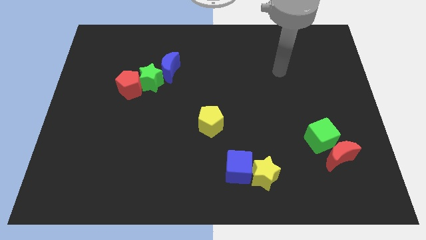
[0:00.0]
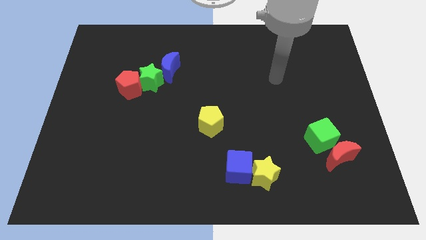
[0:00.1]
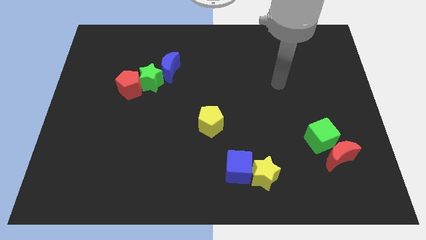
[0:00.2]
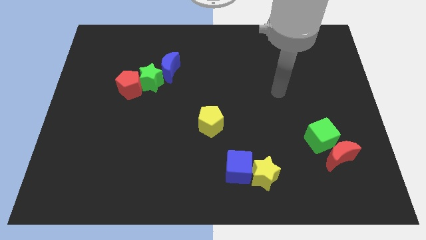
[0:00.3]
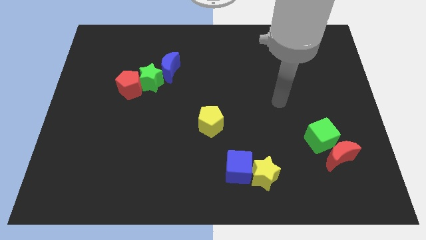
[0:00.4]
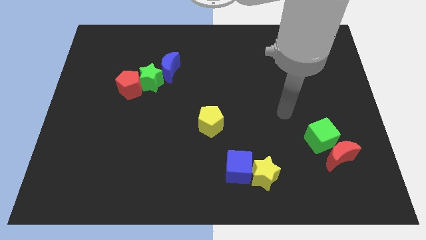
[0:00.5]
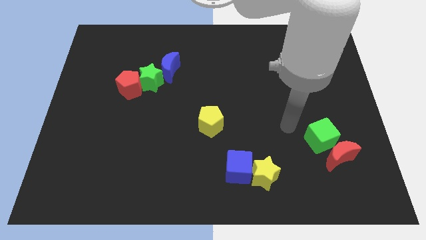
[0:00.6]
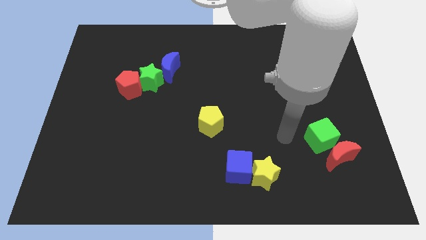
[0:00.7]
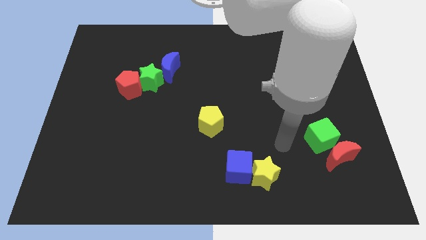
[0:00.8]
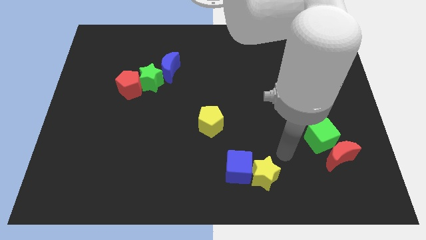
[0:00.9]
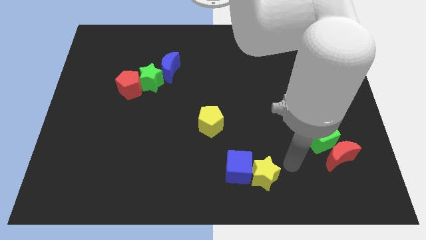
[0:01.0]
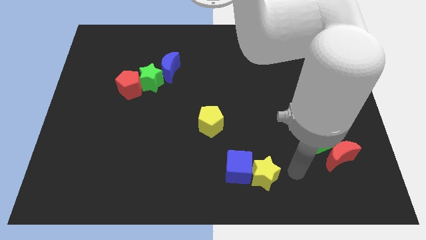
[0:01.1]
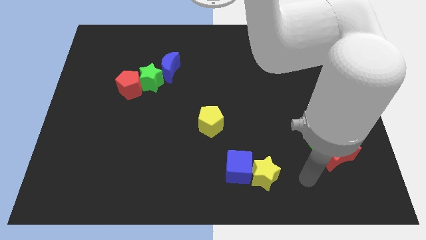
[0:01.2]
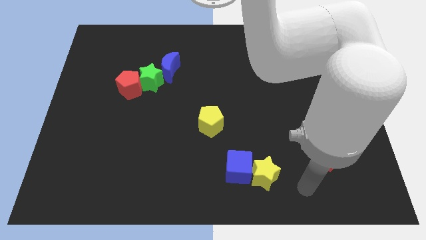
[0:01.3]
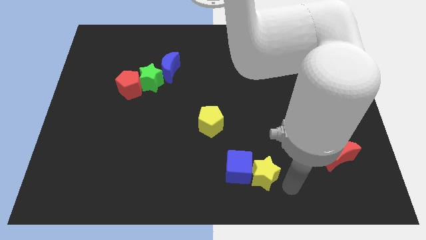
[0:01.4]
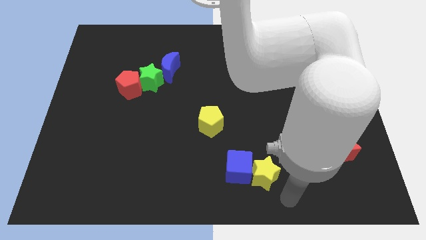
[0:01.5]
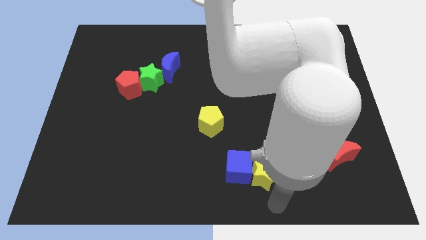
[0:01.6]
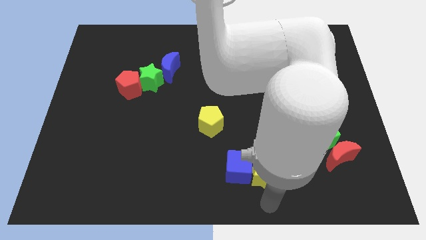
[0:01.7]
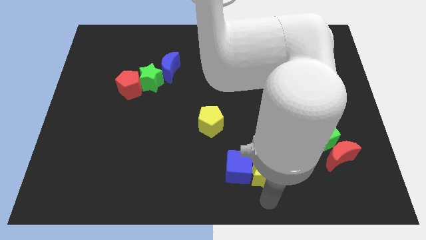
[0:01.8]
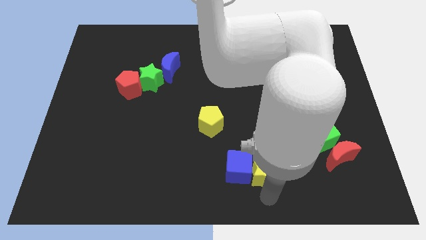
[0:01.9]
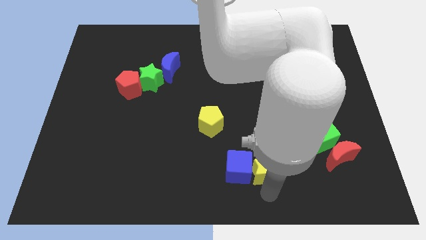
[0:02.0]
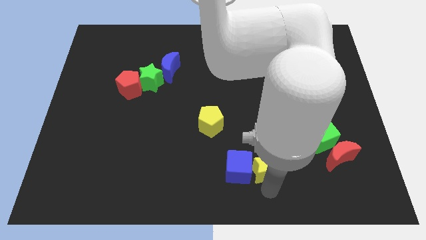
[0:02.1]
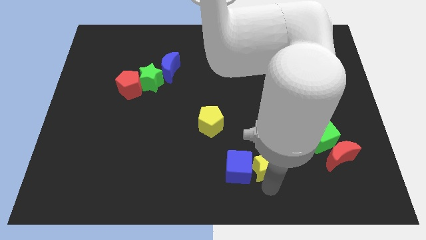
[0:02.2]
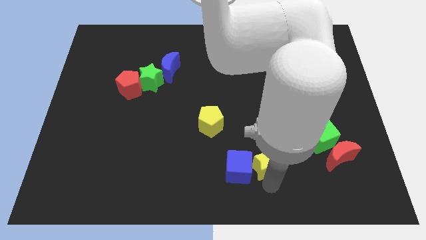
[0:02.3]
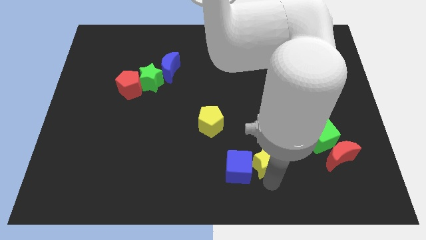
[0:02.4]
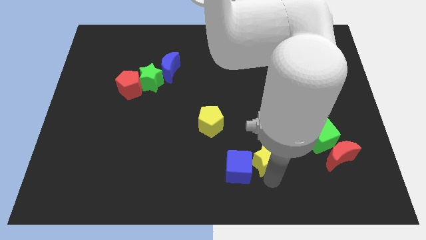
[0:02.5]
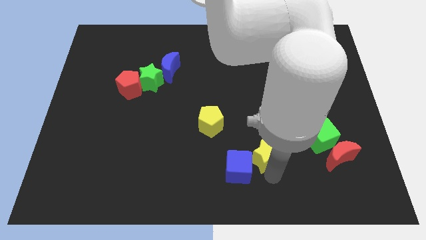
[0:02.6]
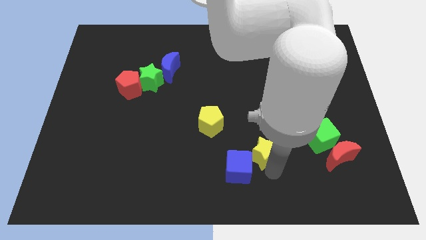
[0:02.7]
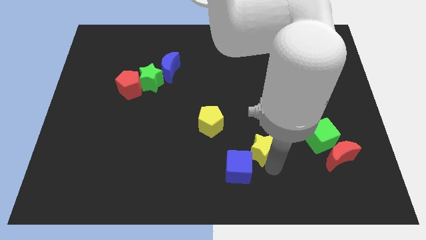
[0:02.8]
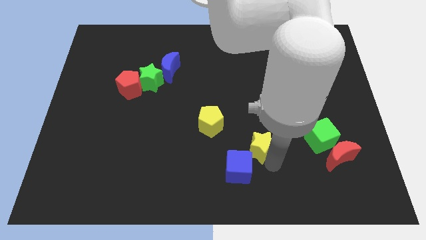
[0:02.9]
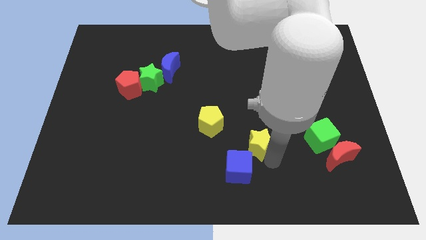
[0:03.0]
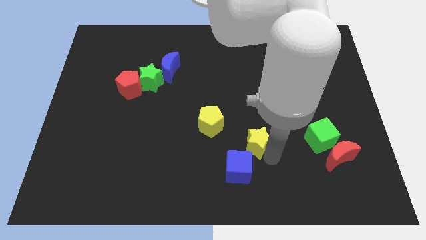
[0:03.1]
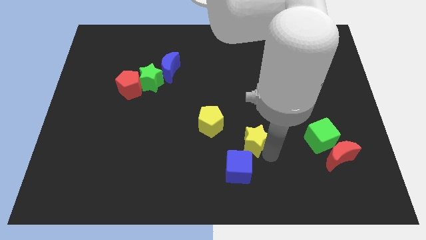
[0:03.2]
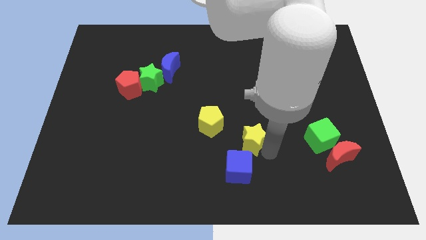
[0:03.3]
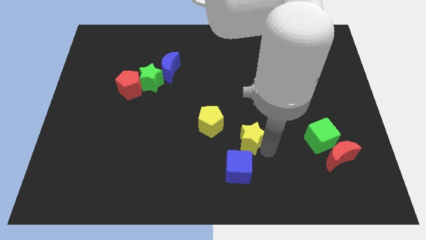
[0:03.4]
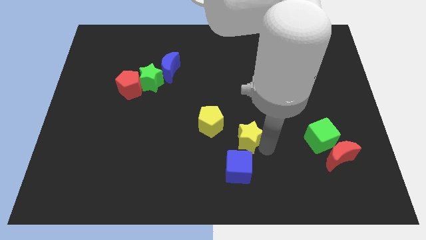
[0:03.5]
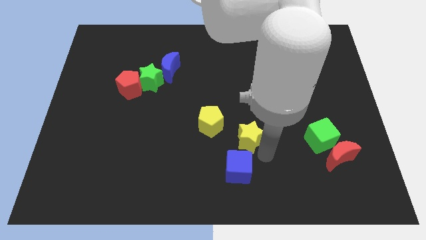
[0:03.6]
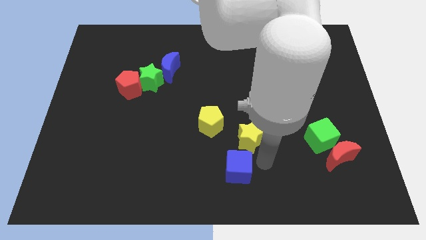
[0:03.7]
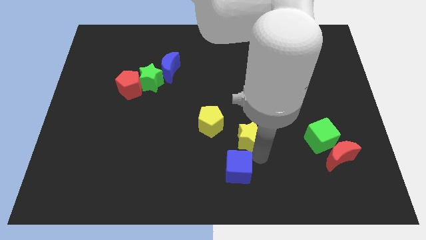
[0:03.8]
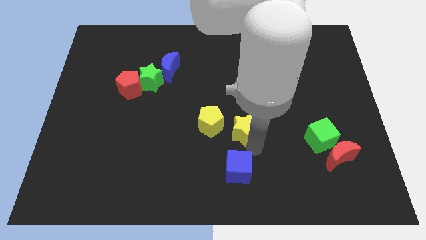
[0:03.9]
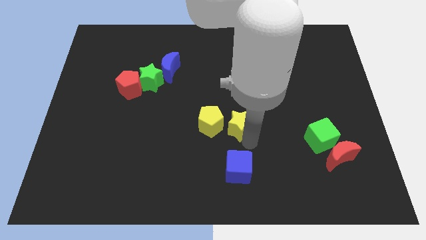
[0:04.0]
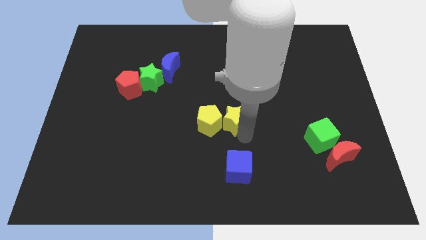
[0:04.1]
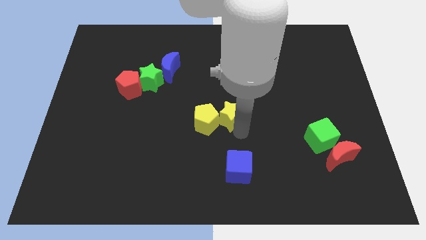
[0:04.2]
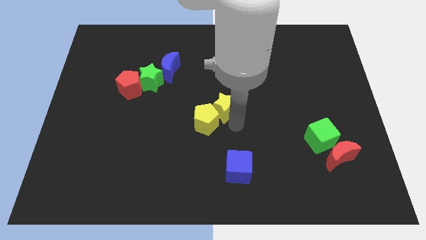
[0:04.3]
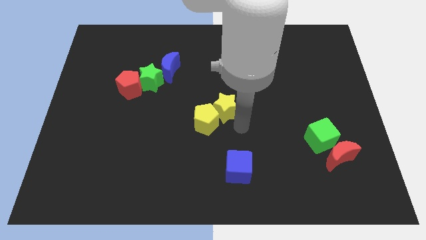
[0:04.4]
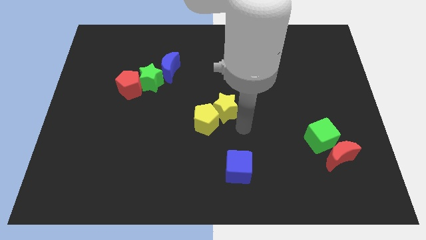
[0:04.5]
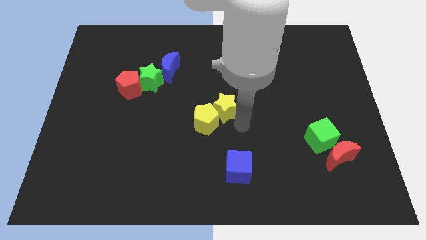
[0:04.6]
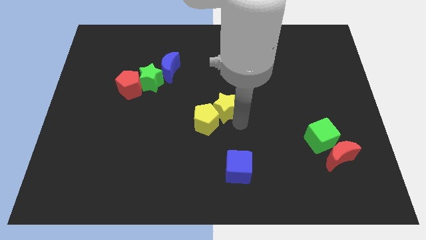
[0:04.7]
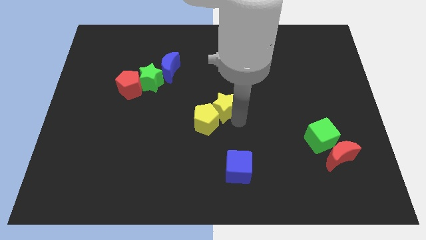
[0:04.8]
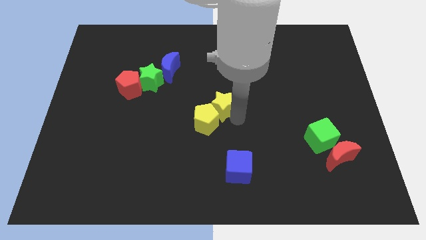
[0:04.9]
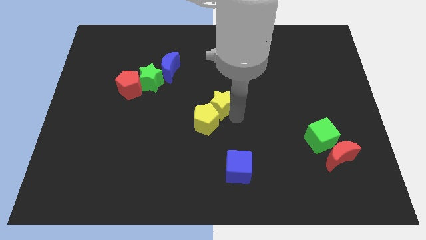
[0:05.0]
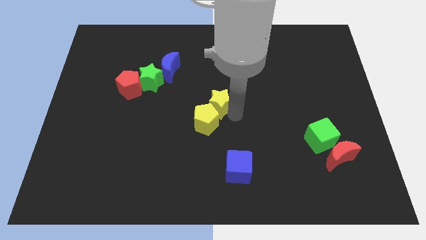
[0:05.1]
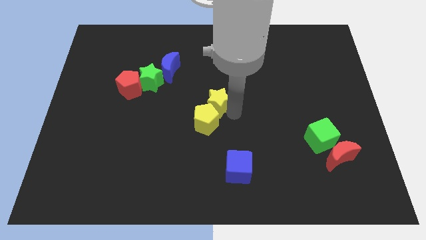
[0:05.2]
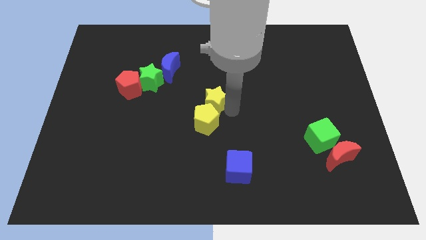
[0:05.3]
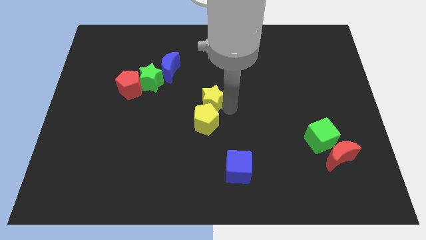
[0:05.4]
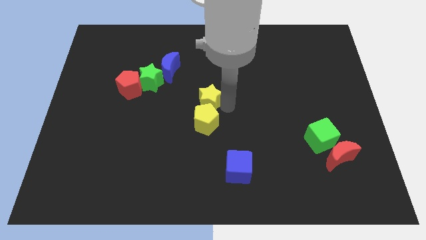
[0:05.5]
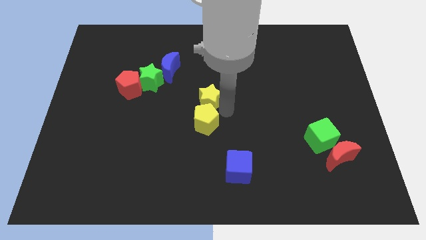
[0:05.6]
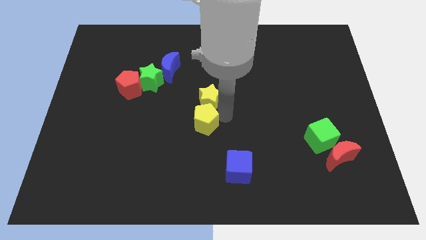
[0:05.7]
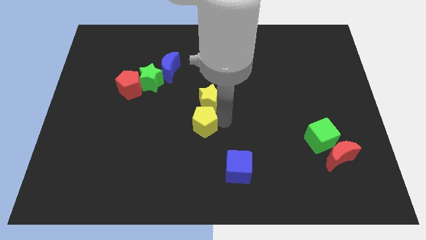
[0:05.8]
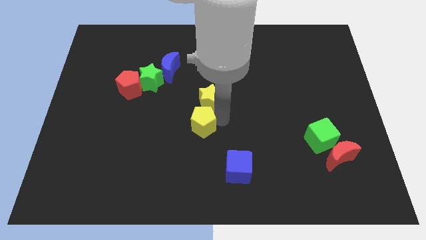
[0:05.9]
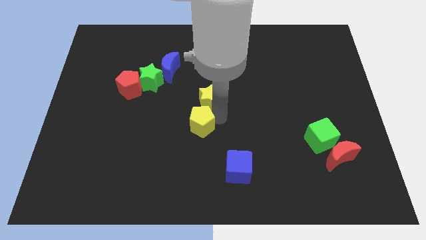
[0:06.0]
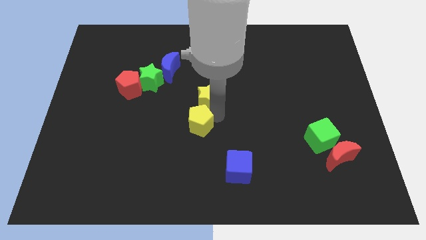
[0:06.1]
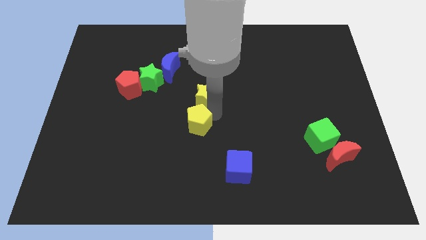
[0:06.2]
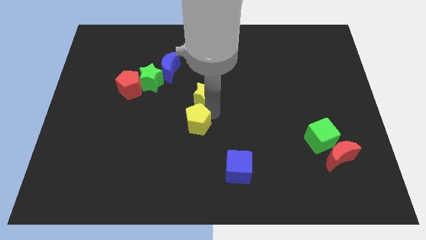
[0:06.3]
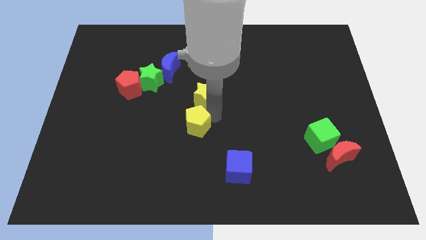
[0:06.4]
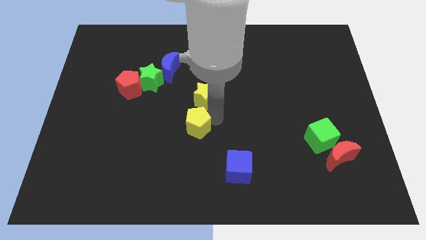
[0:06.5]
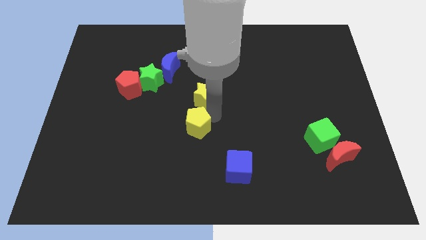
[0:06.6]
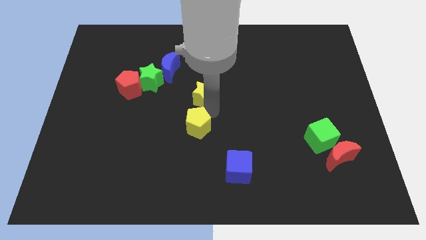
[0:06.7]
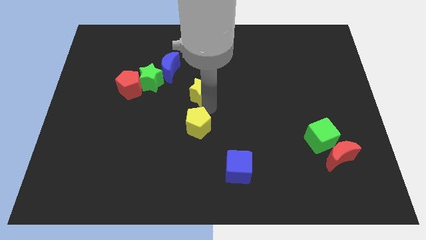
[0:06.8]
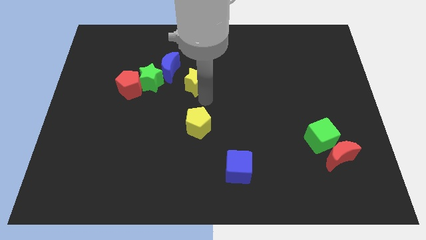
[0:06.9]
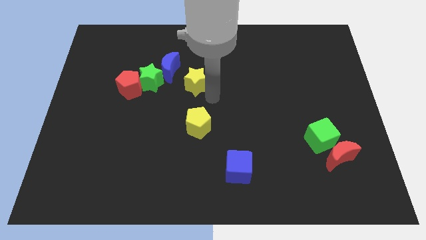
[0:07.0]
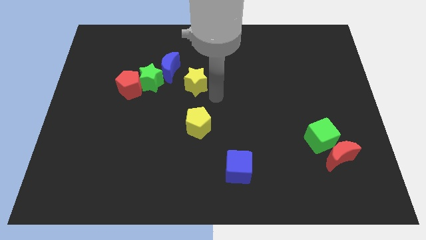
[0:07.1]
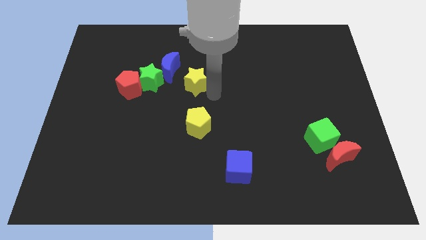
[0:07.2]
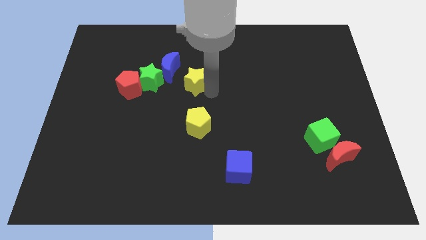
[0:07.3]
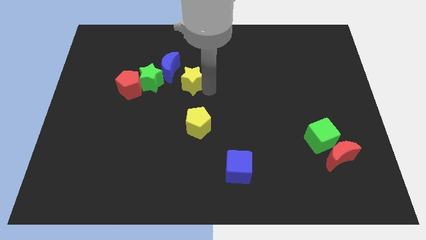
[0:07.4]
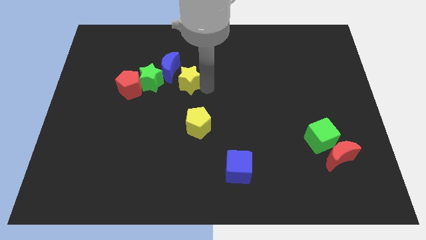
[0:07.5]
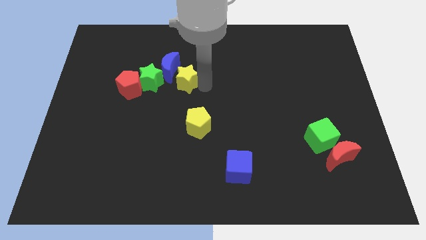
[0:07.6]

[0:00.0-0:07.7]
slide the yellow star next to the blue moon
